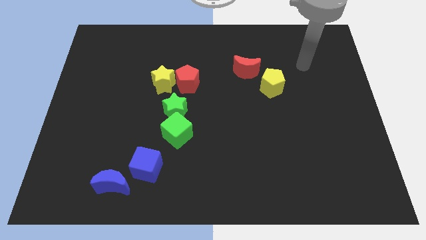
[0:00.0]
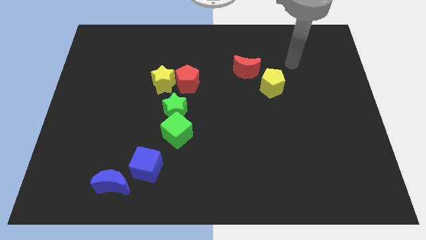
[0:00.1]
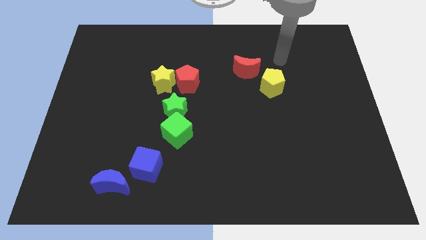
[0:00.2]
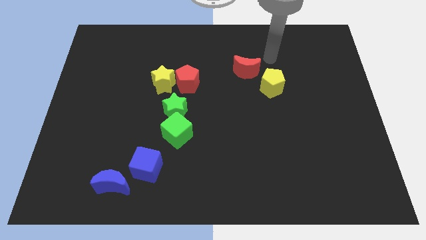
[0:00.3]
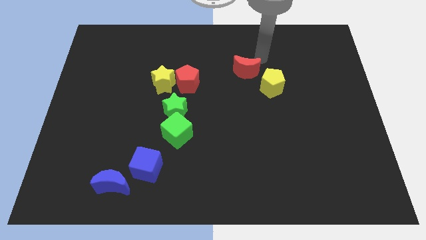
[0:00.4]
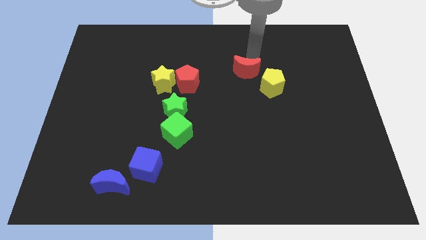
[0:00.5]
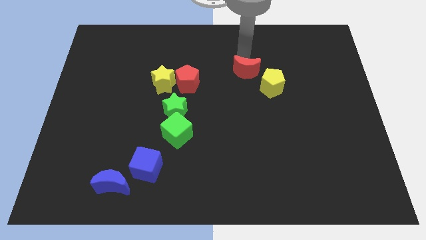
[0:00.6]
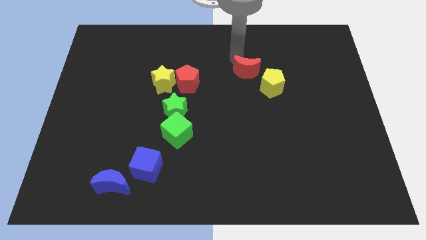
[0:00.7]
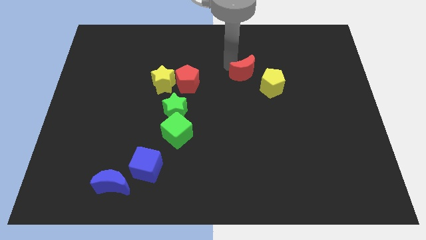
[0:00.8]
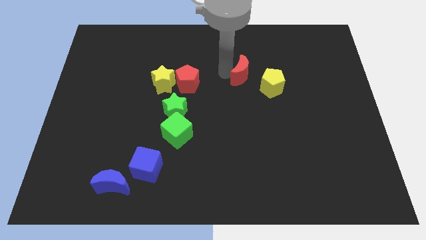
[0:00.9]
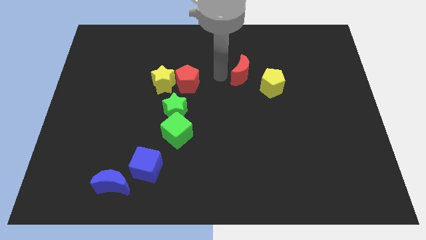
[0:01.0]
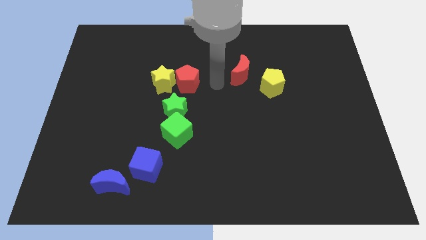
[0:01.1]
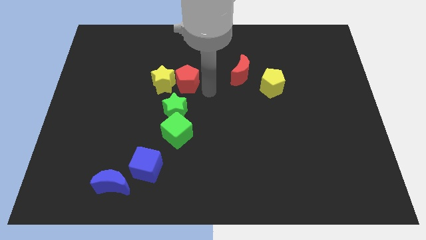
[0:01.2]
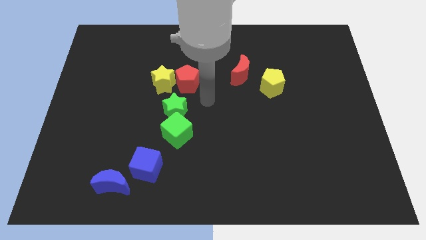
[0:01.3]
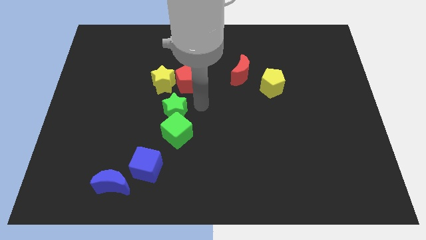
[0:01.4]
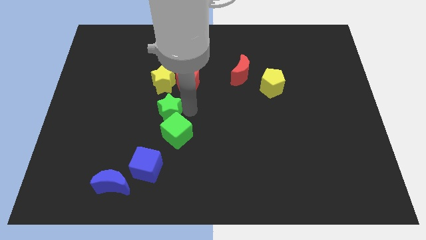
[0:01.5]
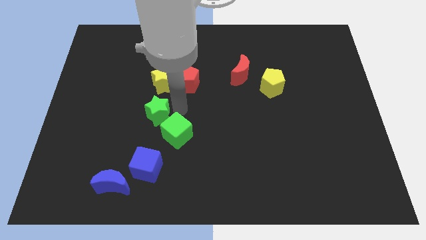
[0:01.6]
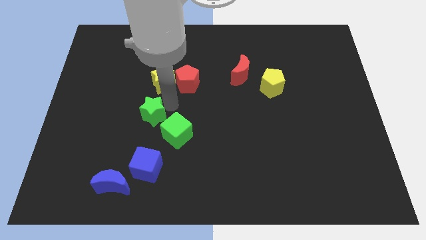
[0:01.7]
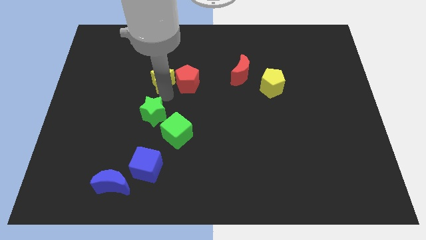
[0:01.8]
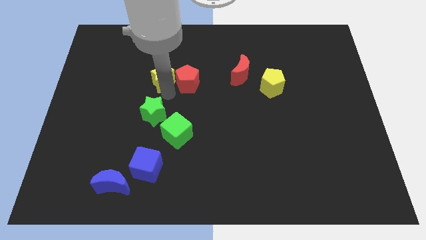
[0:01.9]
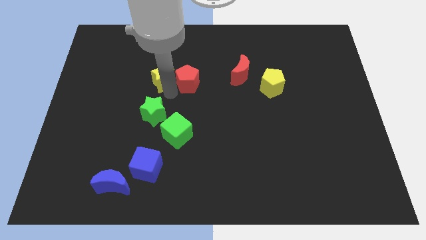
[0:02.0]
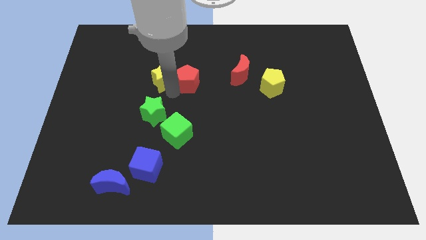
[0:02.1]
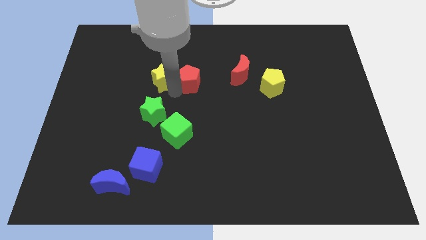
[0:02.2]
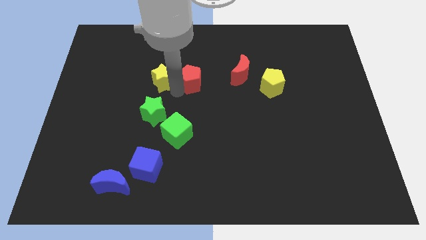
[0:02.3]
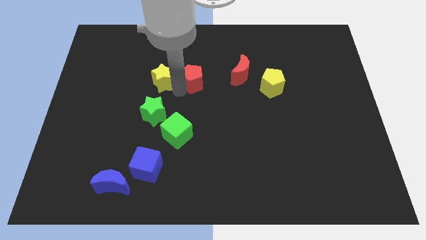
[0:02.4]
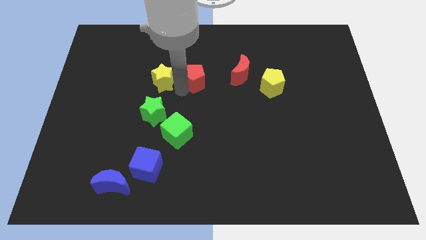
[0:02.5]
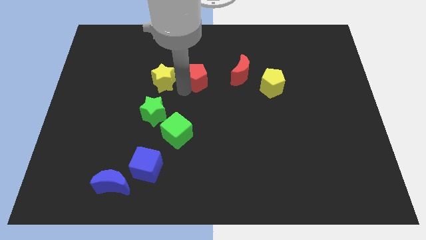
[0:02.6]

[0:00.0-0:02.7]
move the red pentagon away from the yellow star and green star

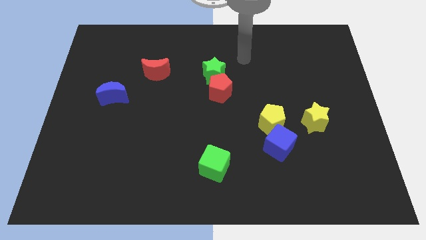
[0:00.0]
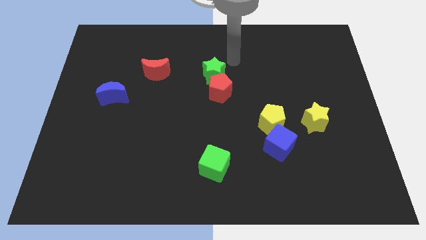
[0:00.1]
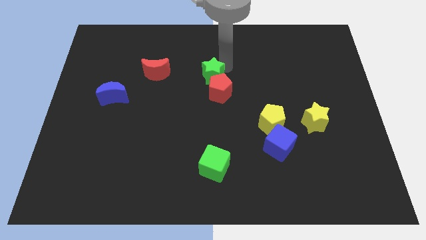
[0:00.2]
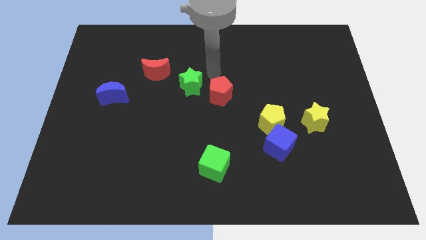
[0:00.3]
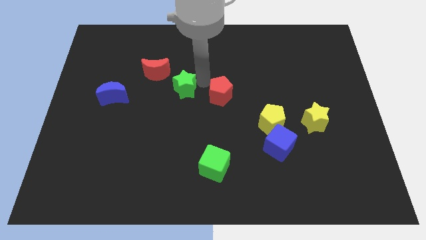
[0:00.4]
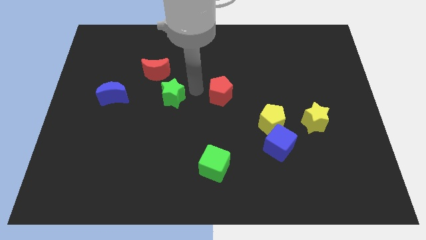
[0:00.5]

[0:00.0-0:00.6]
move the red pentagon away from the green star

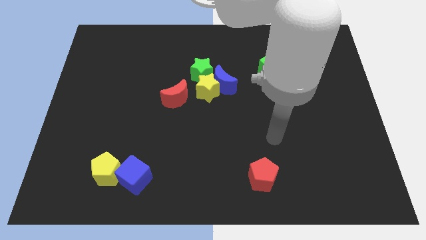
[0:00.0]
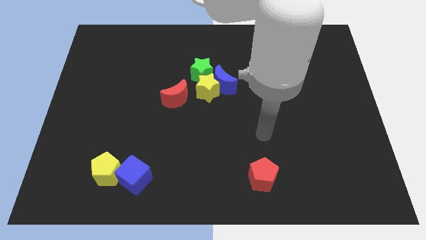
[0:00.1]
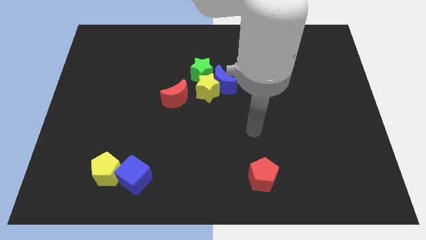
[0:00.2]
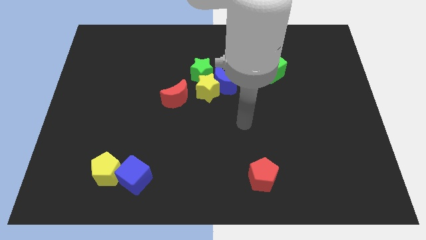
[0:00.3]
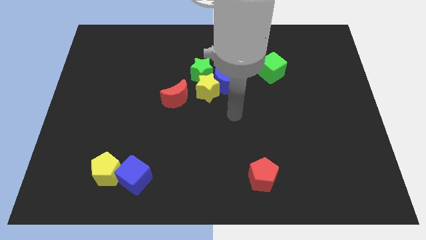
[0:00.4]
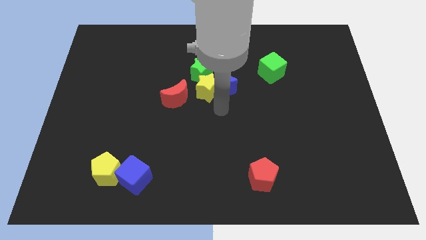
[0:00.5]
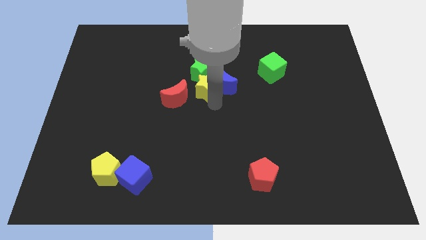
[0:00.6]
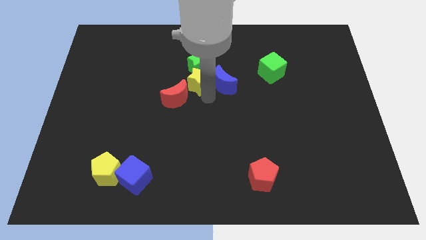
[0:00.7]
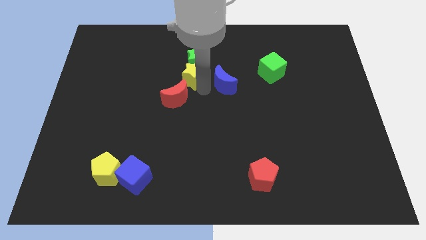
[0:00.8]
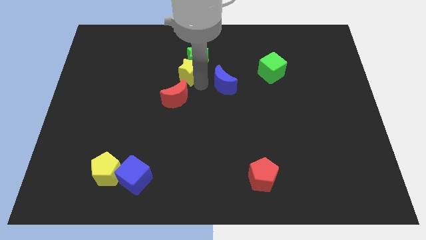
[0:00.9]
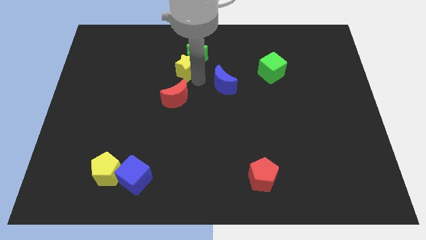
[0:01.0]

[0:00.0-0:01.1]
move the blue moon away from the yellow star and green star

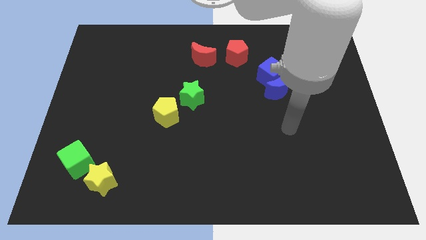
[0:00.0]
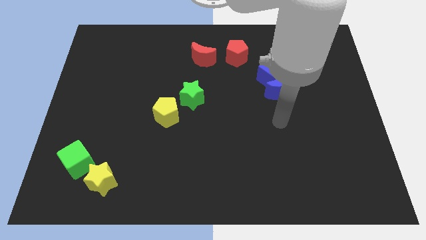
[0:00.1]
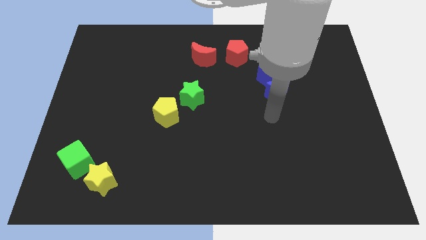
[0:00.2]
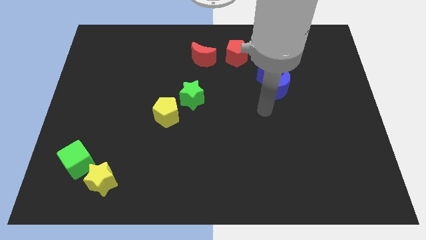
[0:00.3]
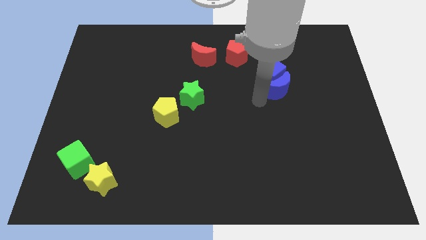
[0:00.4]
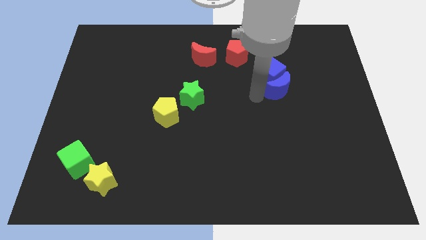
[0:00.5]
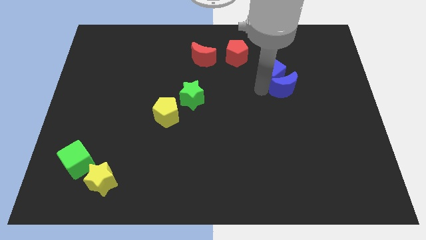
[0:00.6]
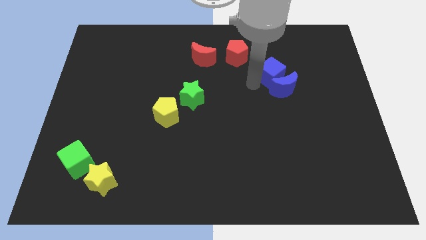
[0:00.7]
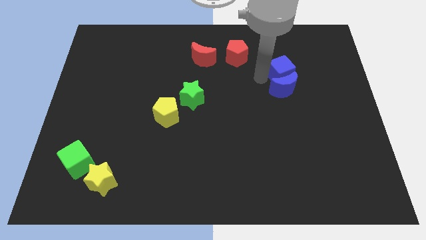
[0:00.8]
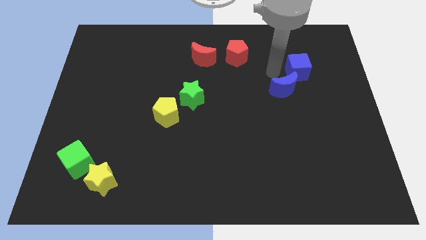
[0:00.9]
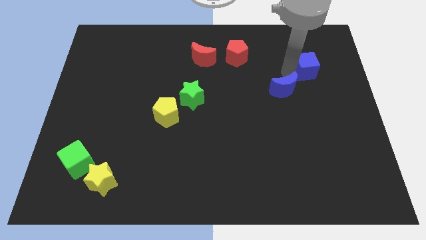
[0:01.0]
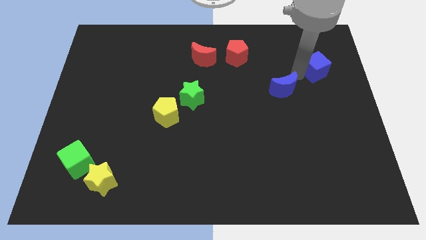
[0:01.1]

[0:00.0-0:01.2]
move the blue moon away from the blue cube

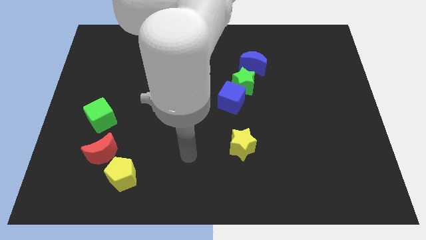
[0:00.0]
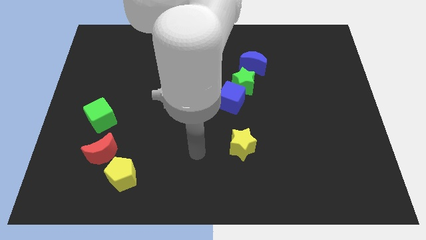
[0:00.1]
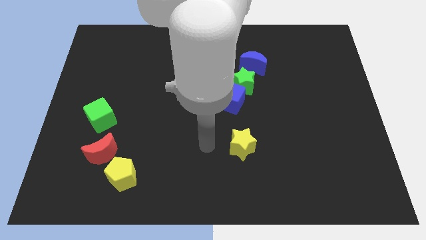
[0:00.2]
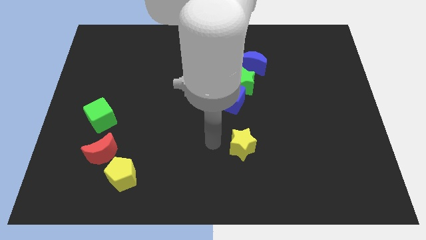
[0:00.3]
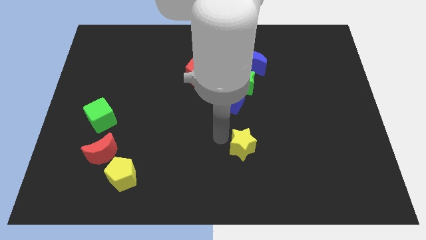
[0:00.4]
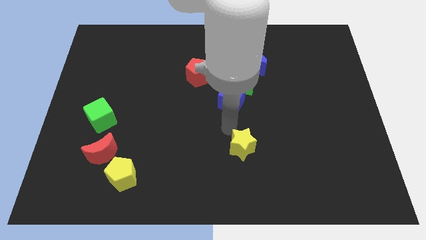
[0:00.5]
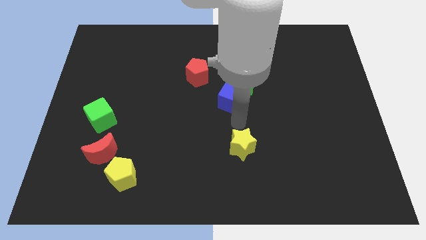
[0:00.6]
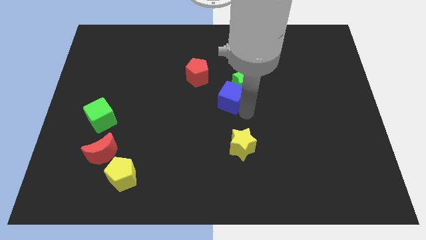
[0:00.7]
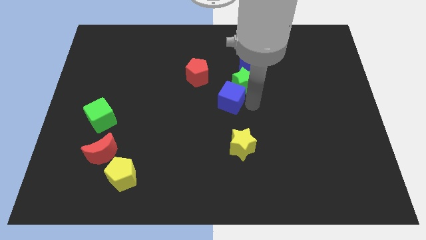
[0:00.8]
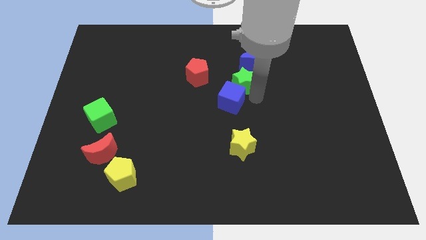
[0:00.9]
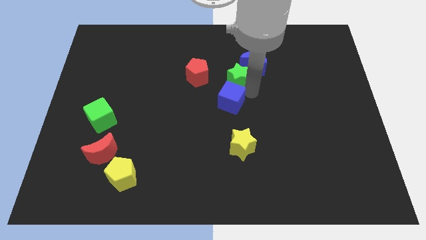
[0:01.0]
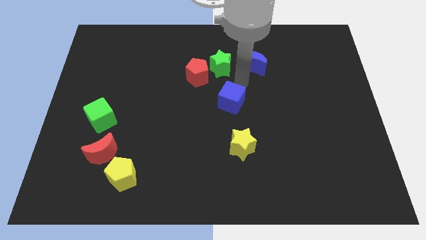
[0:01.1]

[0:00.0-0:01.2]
pull the blue cube apart from the green star

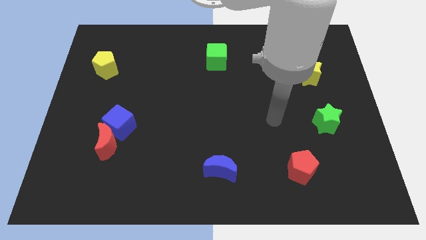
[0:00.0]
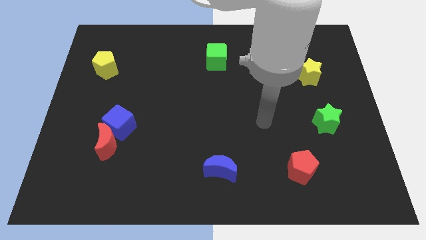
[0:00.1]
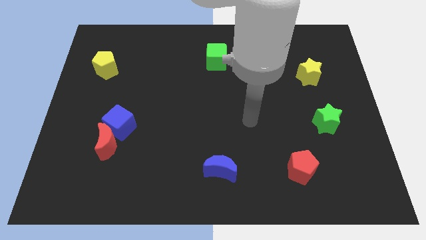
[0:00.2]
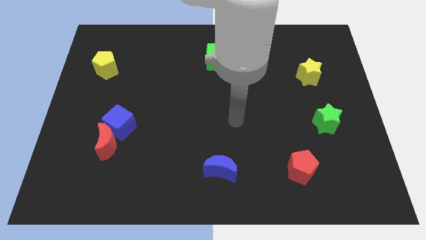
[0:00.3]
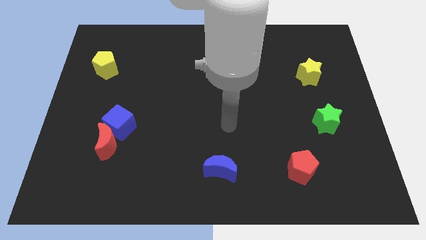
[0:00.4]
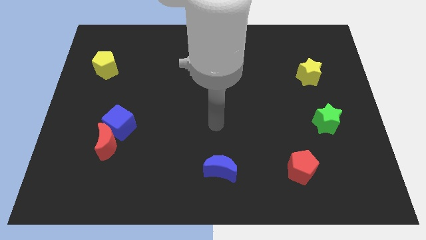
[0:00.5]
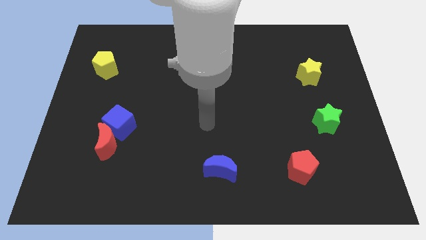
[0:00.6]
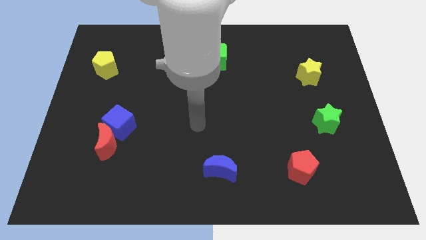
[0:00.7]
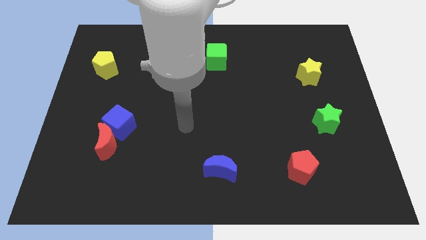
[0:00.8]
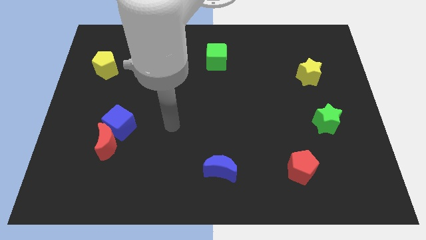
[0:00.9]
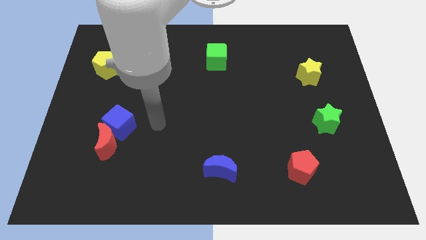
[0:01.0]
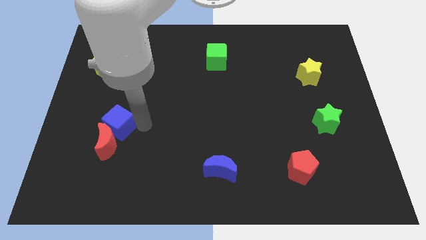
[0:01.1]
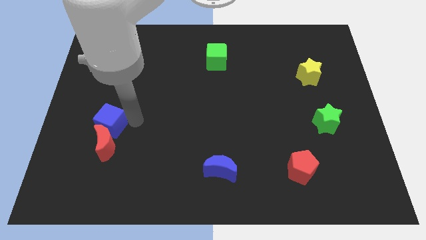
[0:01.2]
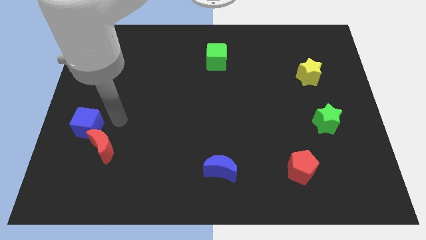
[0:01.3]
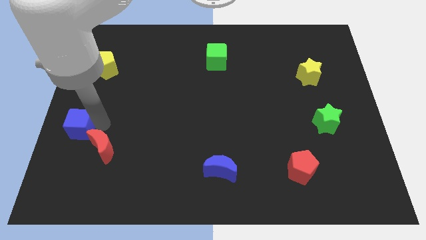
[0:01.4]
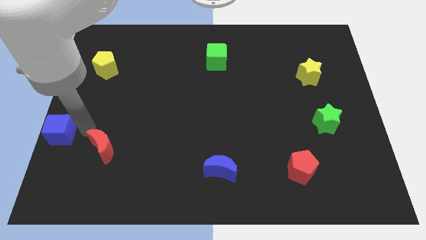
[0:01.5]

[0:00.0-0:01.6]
pull the red moon apart from the blue cube

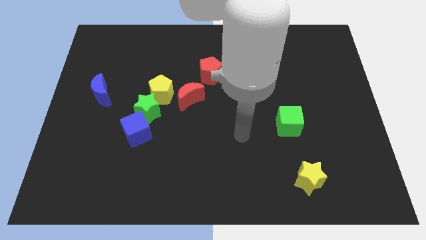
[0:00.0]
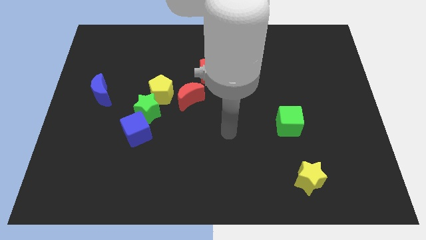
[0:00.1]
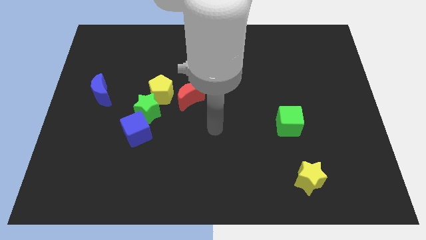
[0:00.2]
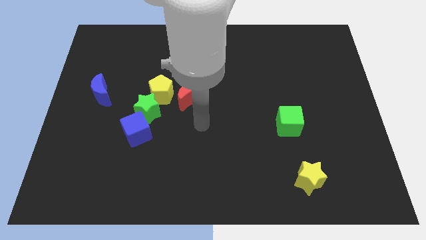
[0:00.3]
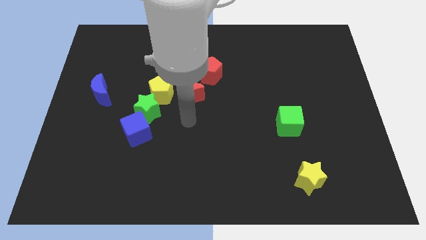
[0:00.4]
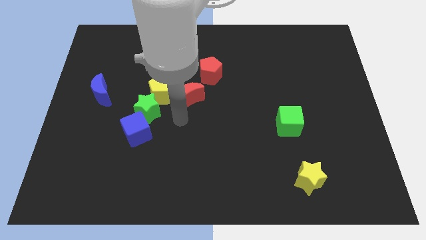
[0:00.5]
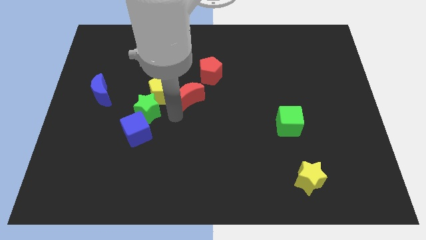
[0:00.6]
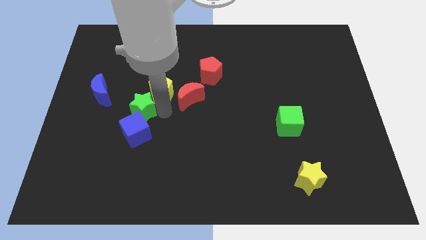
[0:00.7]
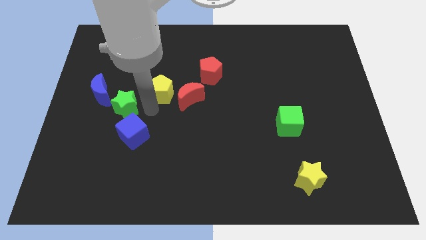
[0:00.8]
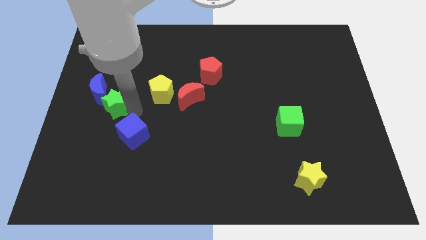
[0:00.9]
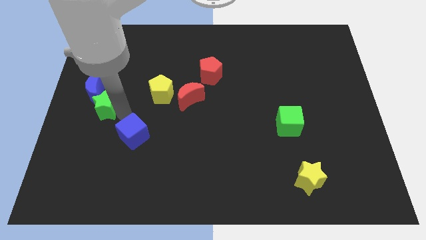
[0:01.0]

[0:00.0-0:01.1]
move the blue cube away from the green star
